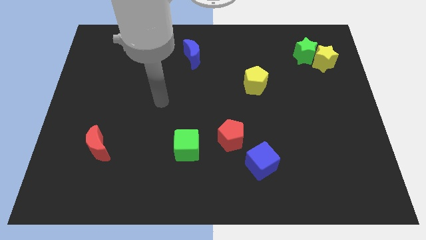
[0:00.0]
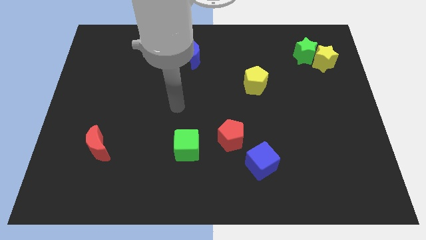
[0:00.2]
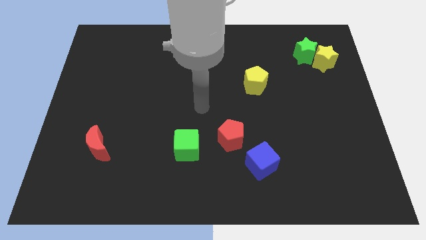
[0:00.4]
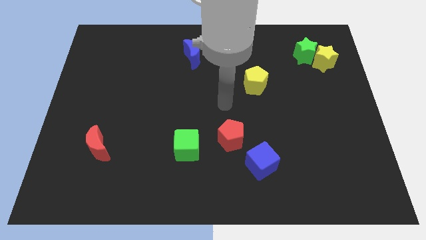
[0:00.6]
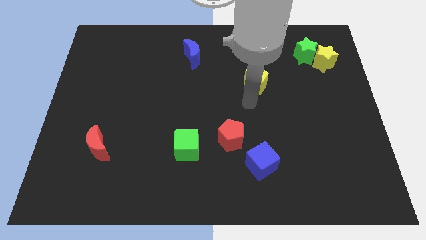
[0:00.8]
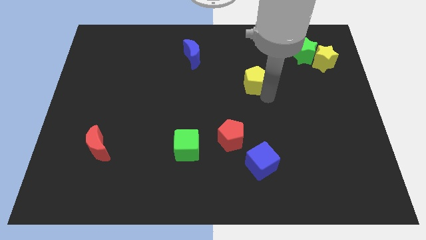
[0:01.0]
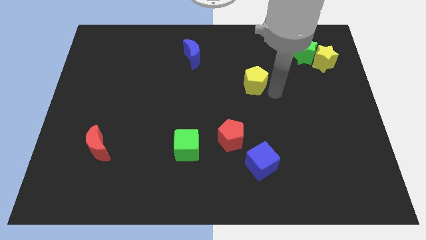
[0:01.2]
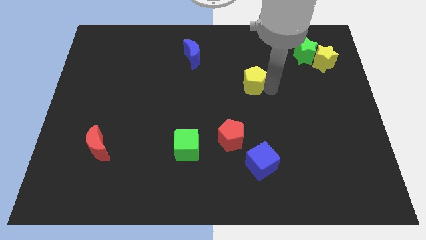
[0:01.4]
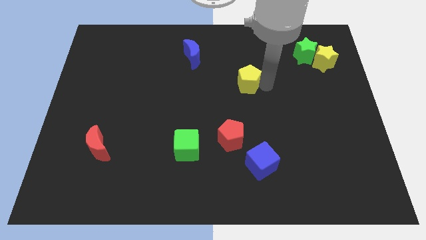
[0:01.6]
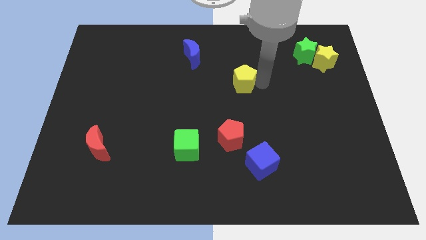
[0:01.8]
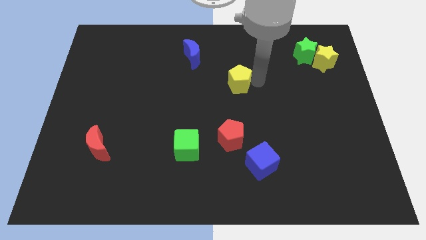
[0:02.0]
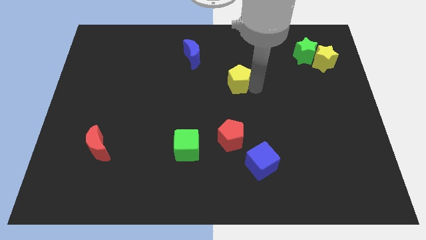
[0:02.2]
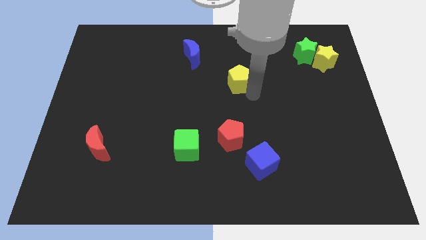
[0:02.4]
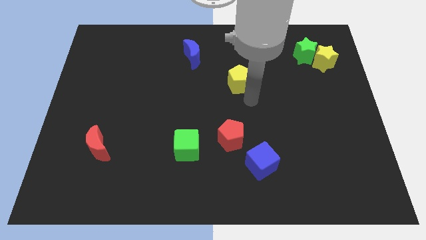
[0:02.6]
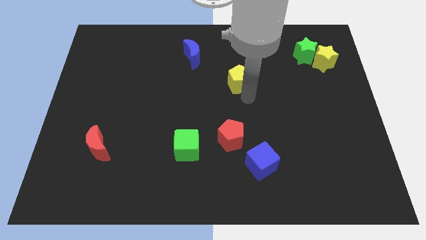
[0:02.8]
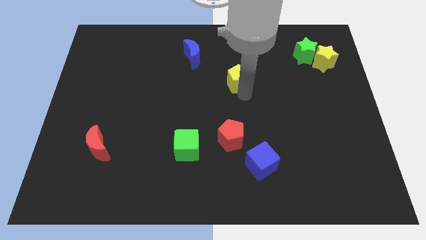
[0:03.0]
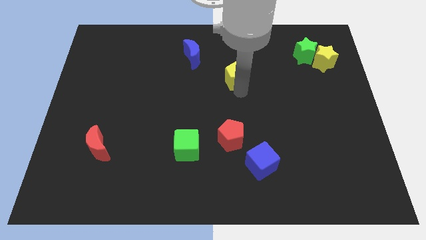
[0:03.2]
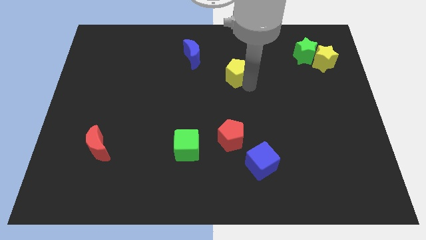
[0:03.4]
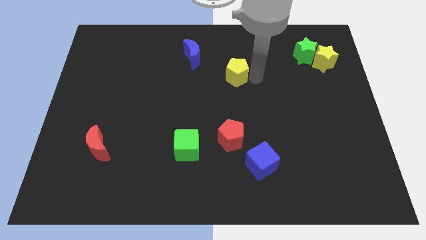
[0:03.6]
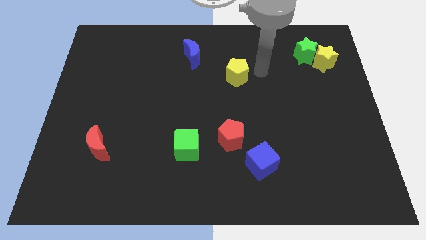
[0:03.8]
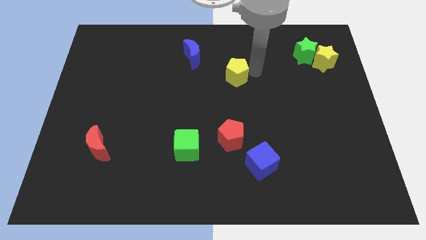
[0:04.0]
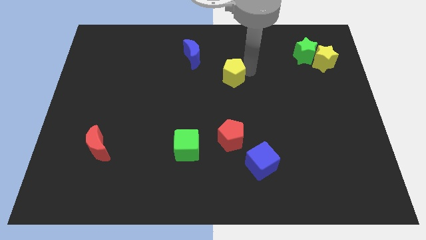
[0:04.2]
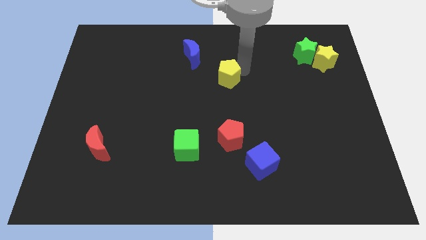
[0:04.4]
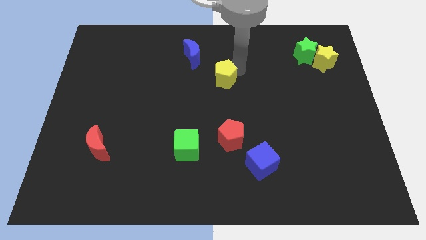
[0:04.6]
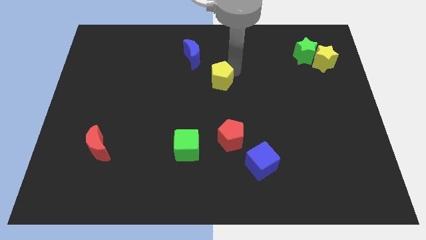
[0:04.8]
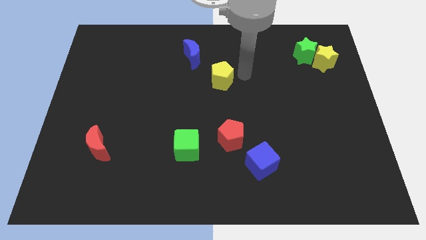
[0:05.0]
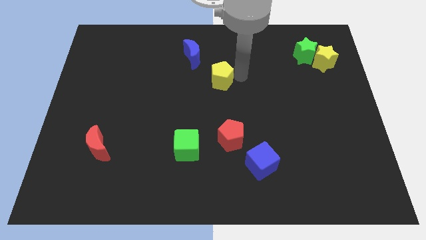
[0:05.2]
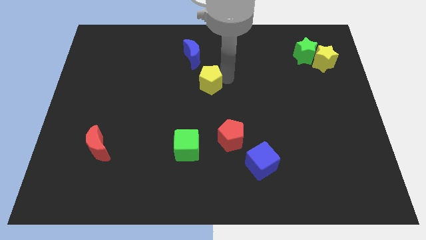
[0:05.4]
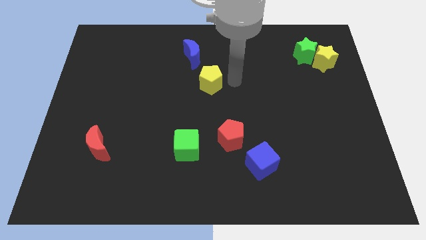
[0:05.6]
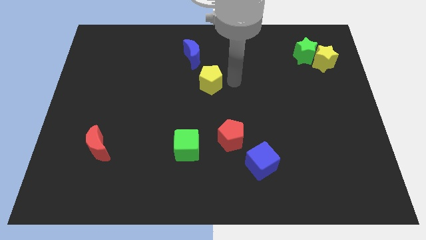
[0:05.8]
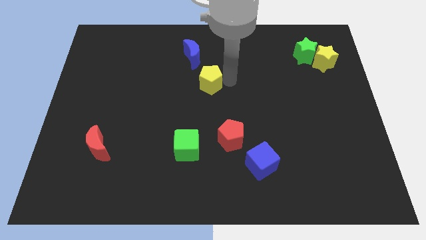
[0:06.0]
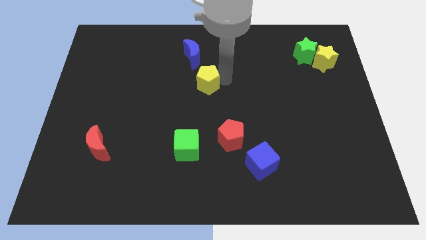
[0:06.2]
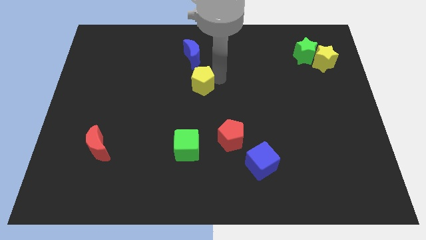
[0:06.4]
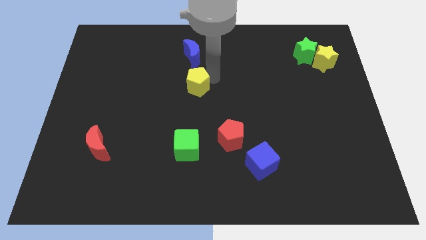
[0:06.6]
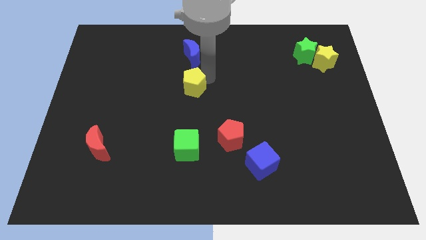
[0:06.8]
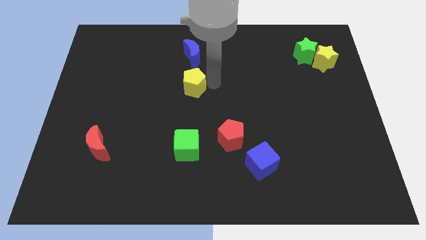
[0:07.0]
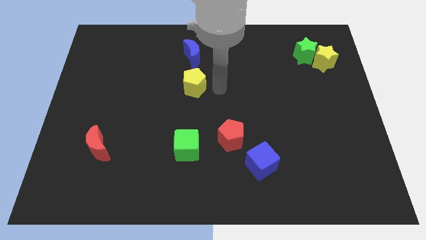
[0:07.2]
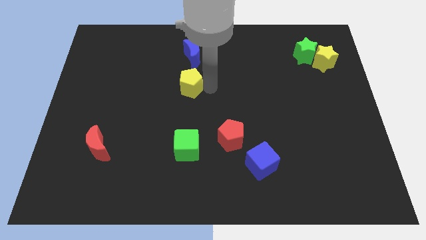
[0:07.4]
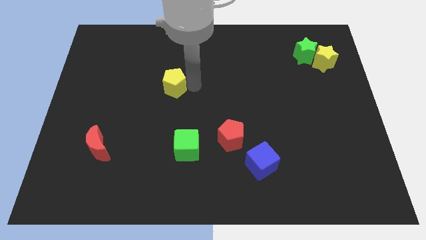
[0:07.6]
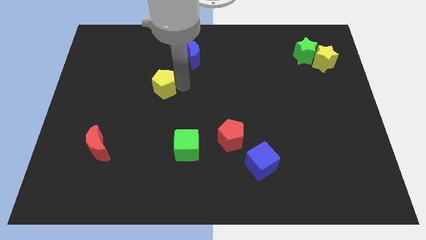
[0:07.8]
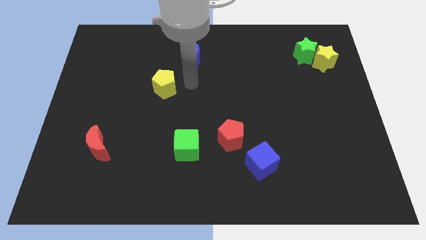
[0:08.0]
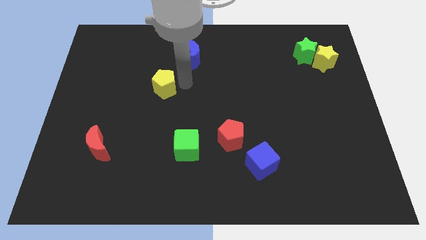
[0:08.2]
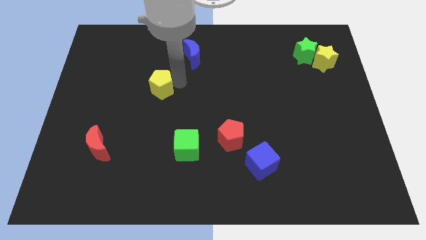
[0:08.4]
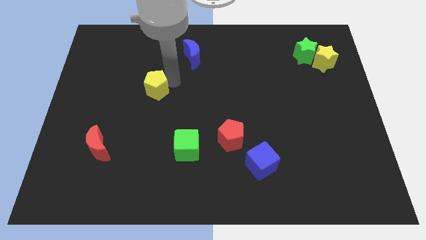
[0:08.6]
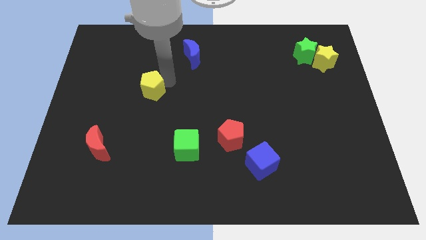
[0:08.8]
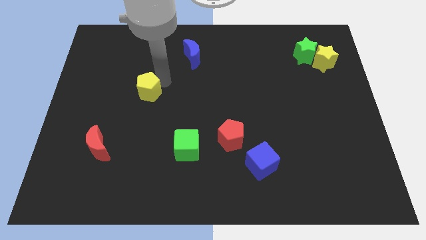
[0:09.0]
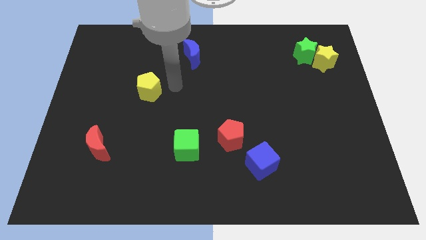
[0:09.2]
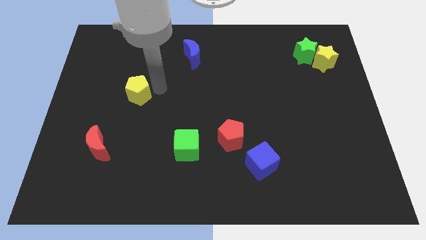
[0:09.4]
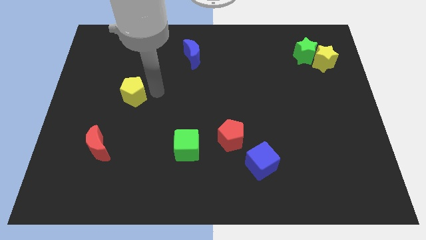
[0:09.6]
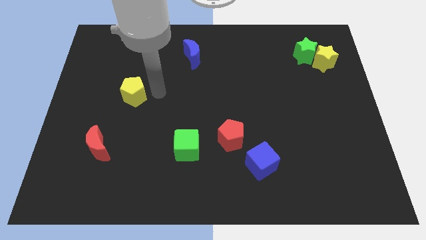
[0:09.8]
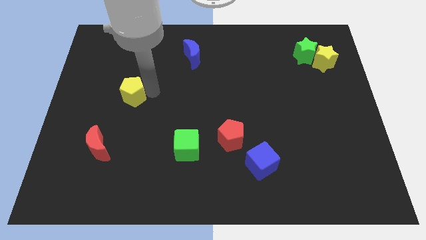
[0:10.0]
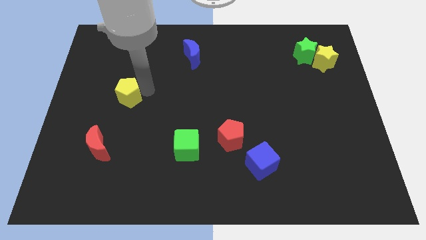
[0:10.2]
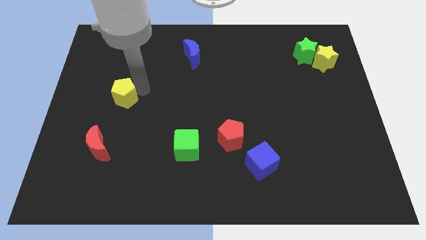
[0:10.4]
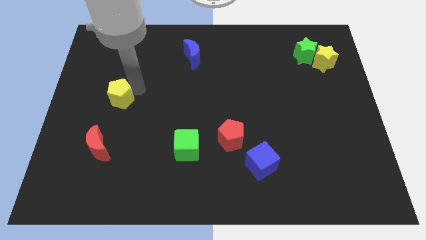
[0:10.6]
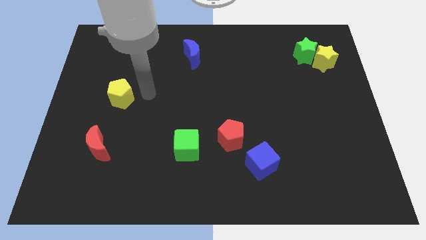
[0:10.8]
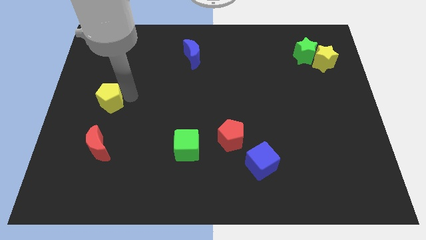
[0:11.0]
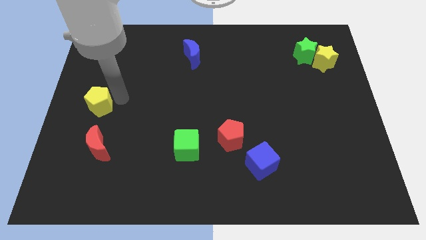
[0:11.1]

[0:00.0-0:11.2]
slide the yellow pentagon to the left side of the board
